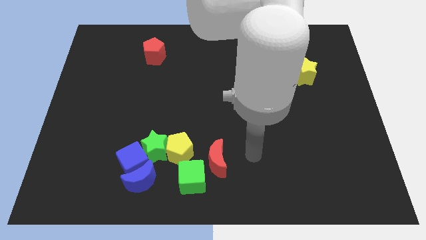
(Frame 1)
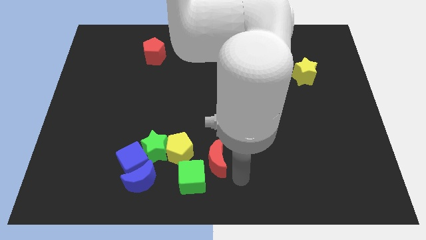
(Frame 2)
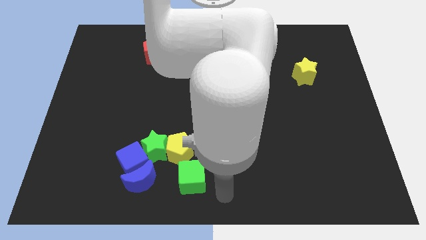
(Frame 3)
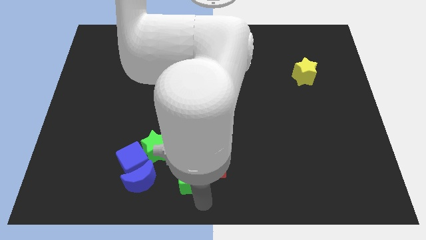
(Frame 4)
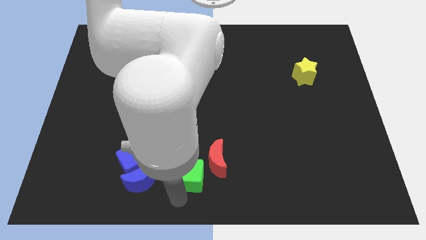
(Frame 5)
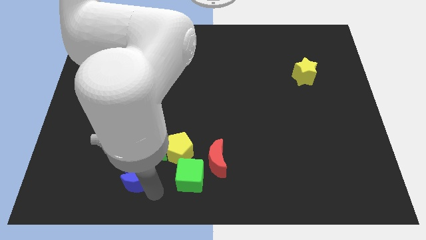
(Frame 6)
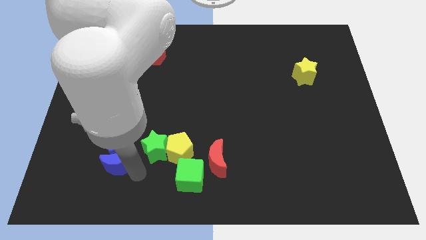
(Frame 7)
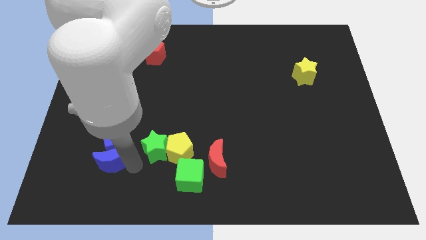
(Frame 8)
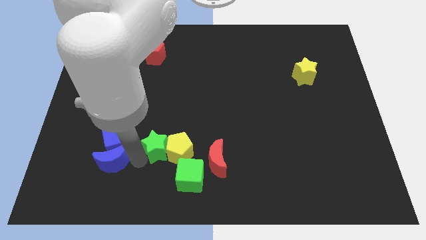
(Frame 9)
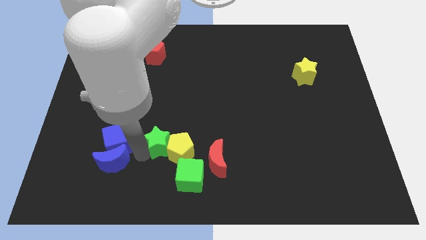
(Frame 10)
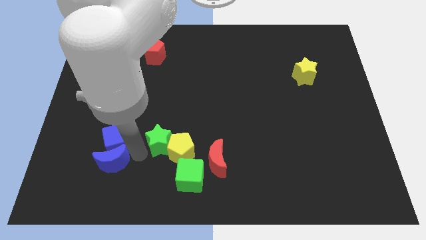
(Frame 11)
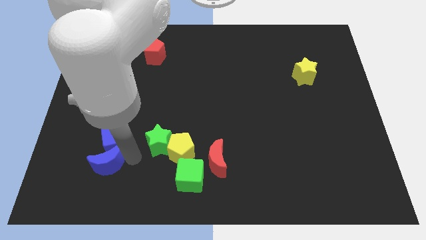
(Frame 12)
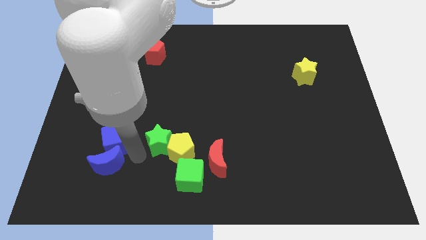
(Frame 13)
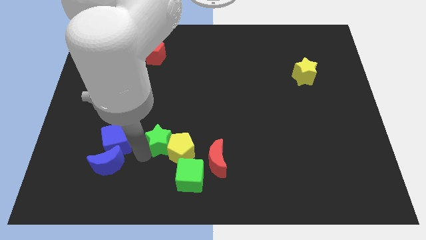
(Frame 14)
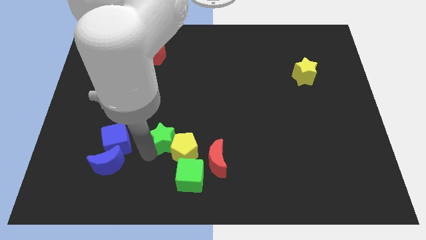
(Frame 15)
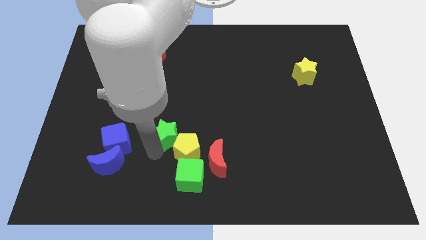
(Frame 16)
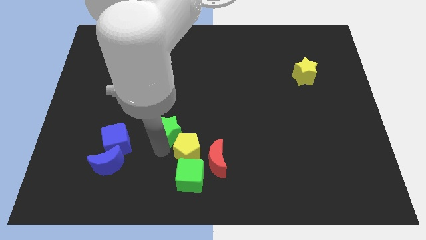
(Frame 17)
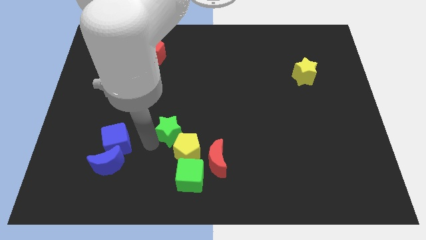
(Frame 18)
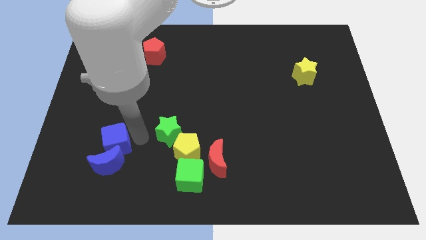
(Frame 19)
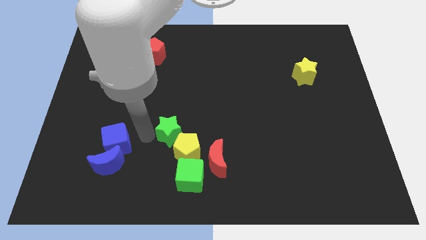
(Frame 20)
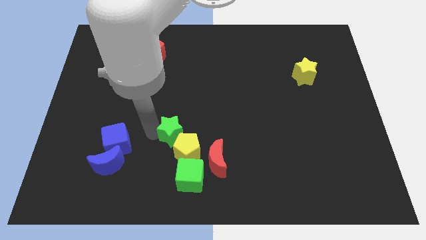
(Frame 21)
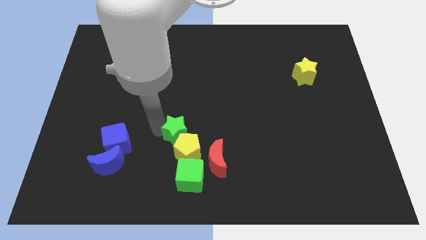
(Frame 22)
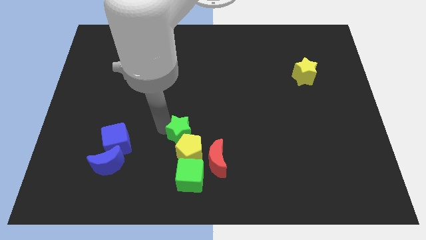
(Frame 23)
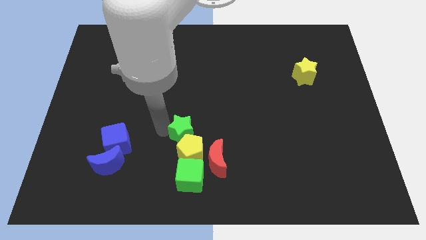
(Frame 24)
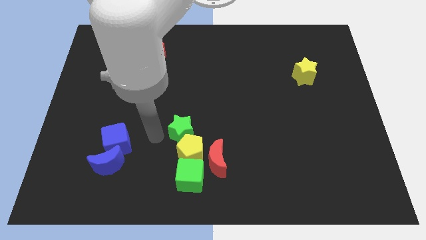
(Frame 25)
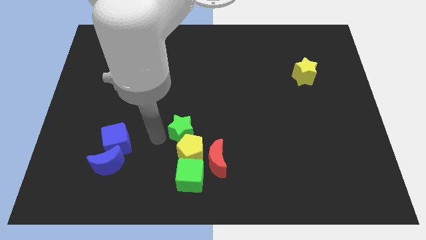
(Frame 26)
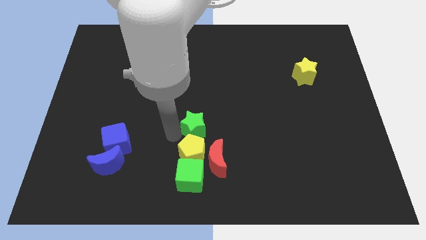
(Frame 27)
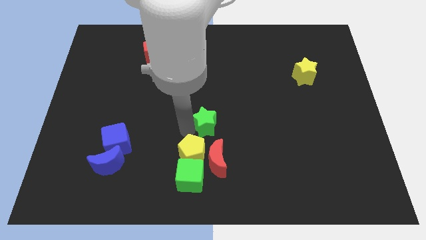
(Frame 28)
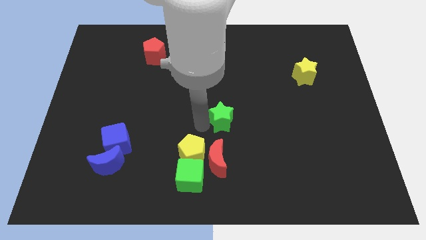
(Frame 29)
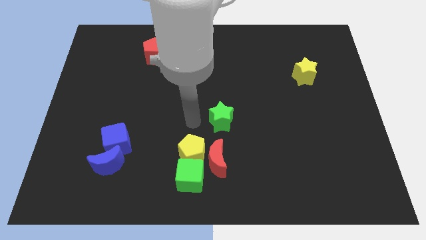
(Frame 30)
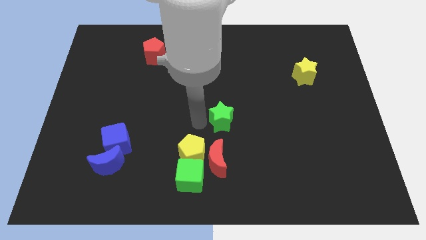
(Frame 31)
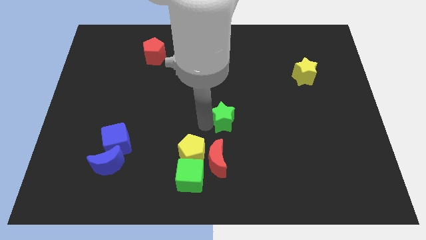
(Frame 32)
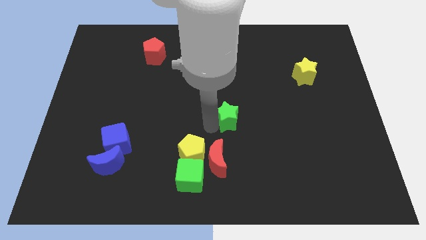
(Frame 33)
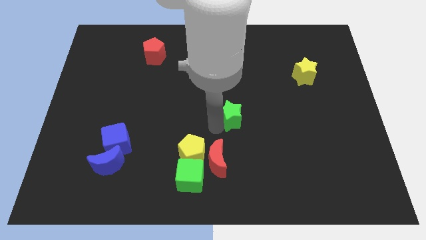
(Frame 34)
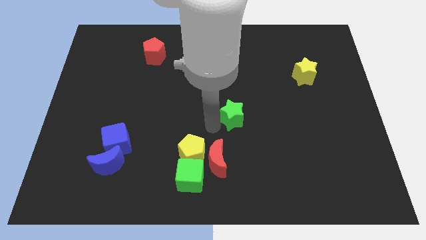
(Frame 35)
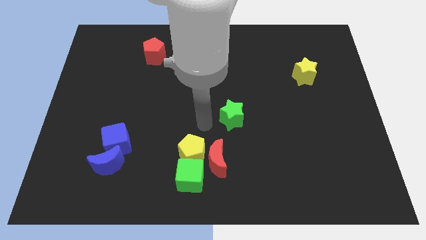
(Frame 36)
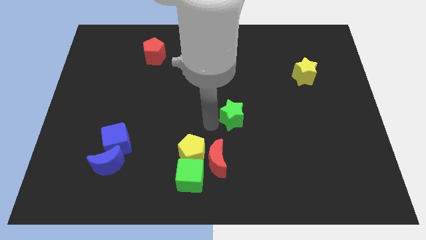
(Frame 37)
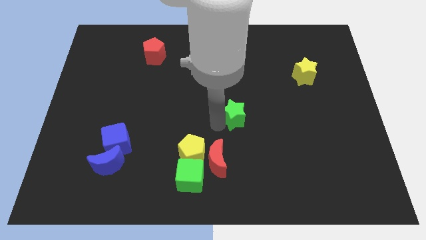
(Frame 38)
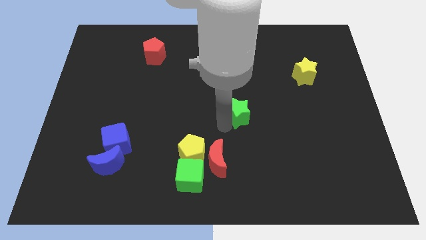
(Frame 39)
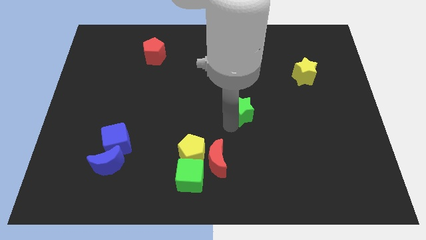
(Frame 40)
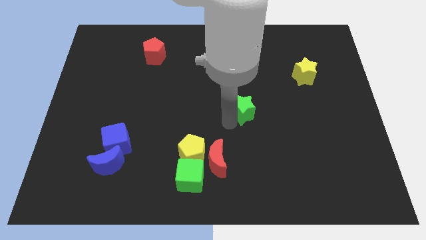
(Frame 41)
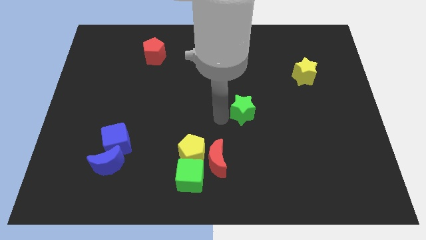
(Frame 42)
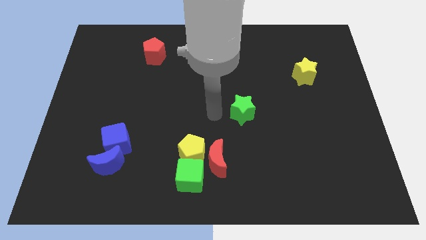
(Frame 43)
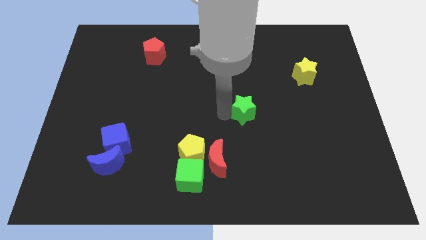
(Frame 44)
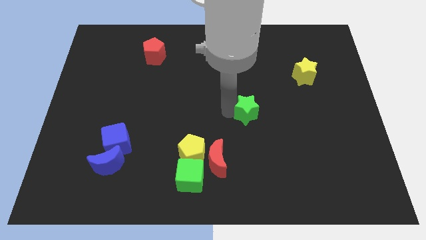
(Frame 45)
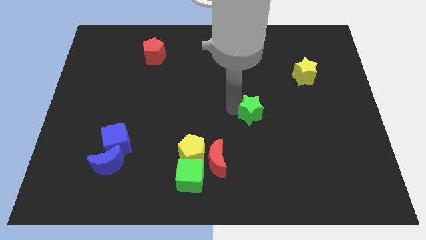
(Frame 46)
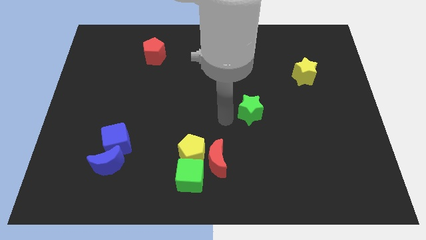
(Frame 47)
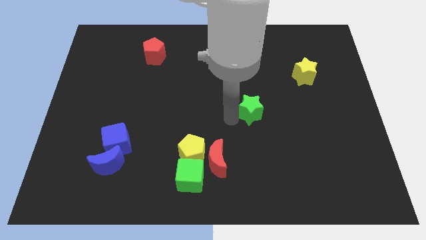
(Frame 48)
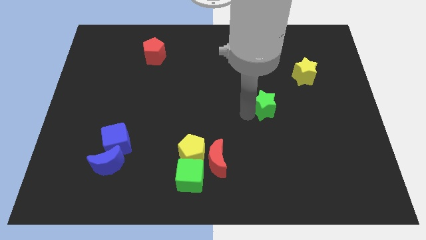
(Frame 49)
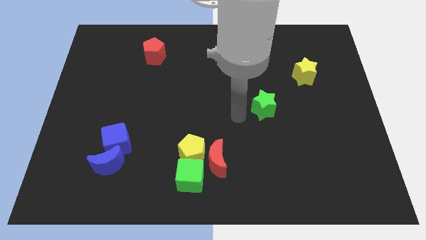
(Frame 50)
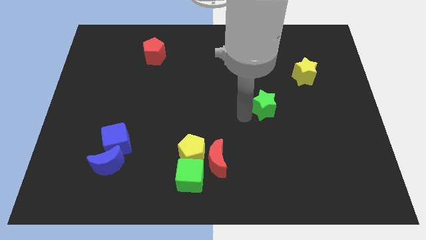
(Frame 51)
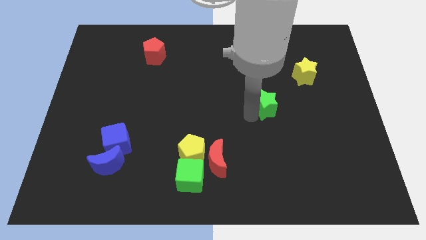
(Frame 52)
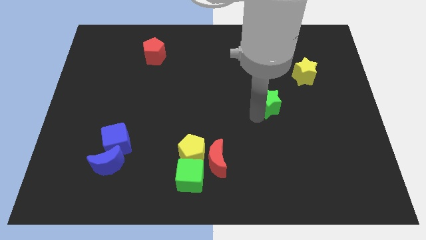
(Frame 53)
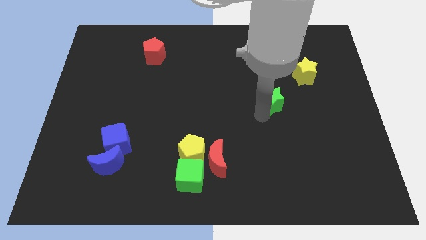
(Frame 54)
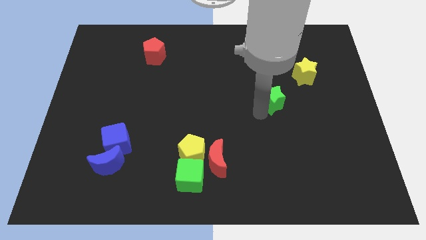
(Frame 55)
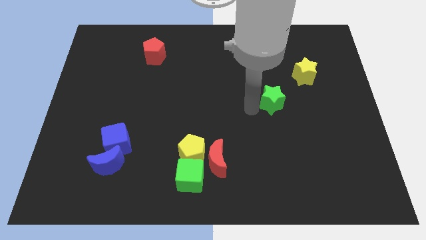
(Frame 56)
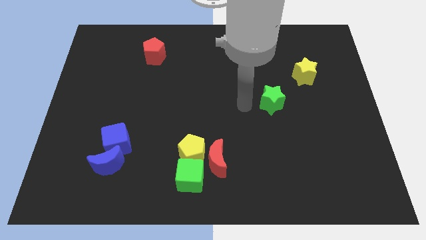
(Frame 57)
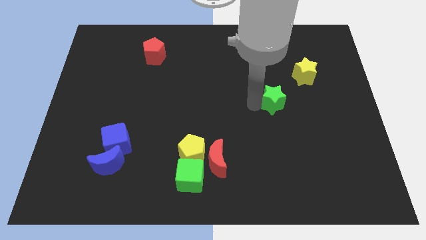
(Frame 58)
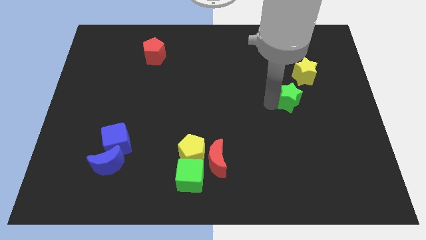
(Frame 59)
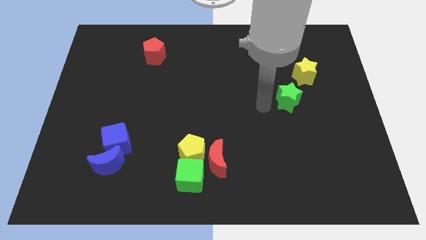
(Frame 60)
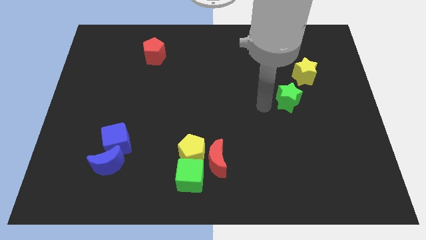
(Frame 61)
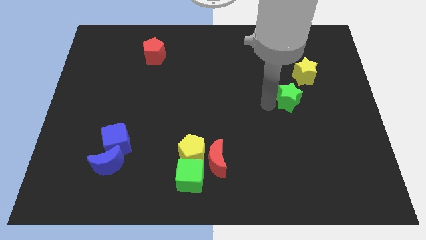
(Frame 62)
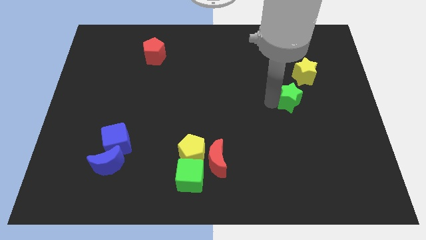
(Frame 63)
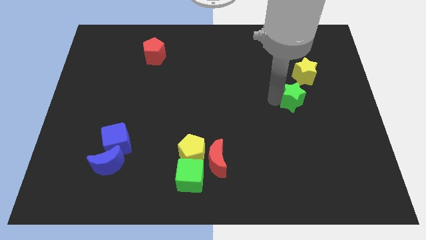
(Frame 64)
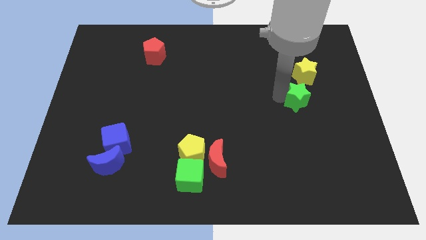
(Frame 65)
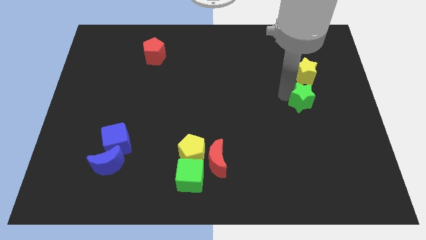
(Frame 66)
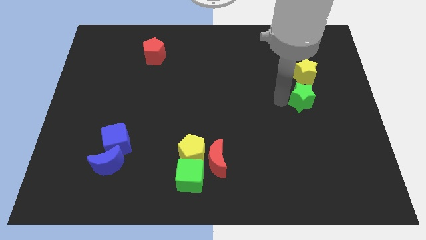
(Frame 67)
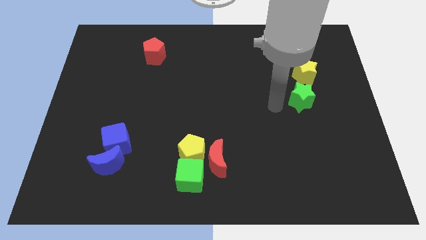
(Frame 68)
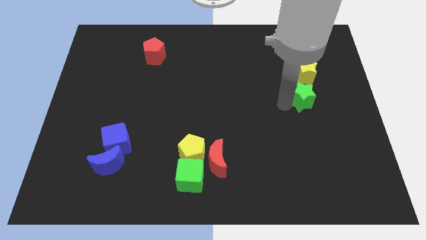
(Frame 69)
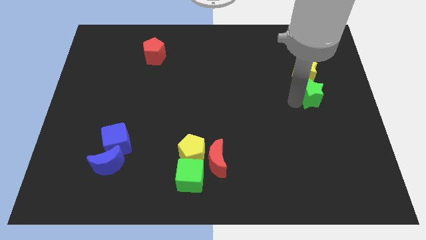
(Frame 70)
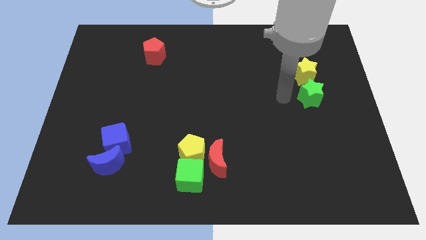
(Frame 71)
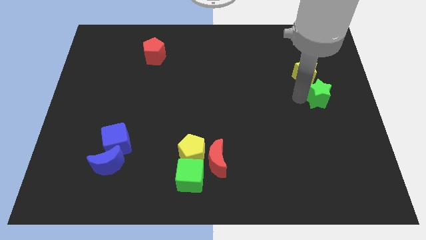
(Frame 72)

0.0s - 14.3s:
put the green star to the right side

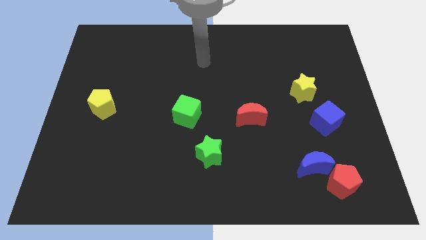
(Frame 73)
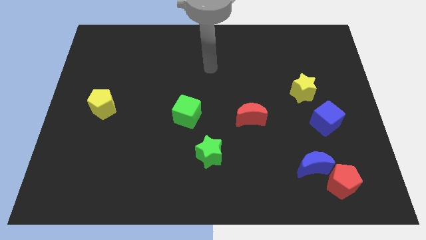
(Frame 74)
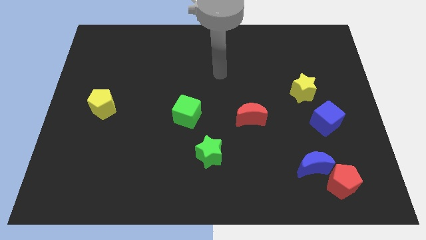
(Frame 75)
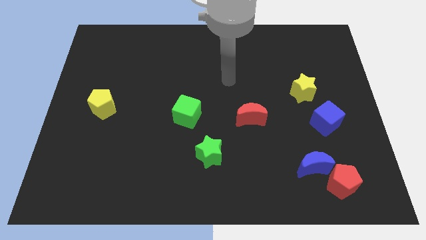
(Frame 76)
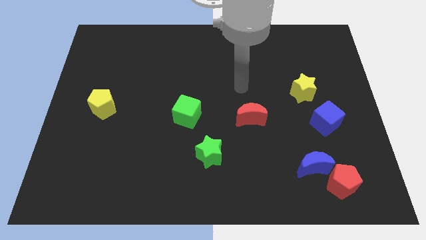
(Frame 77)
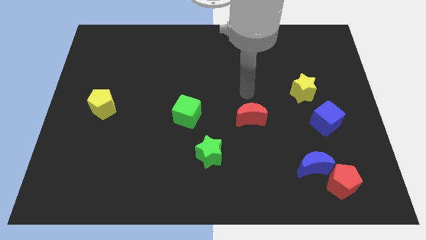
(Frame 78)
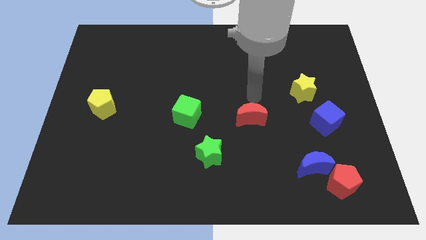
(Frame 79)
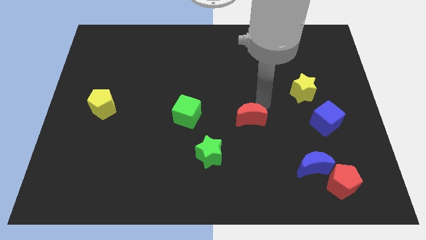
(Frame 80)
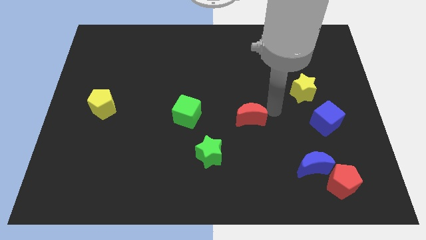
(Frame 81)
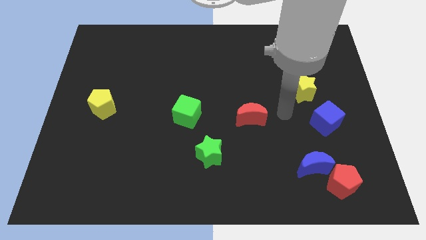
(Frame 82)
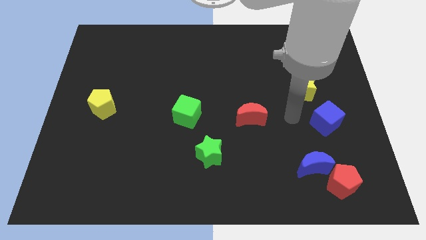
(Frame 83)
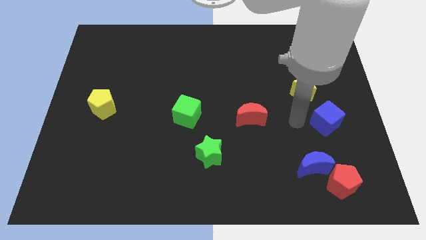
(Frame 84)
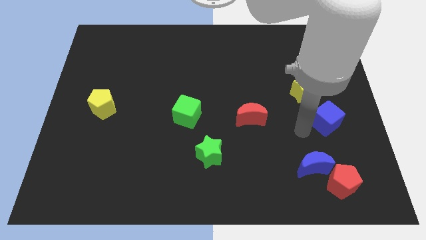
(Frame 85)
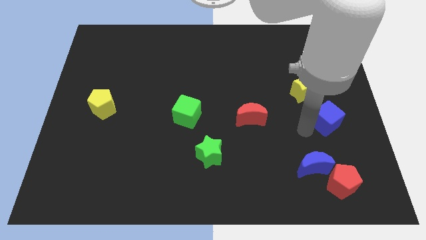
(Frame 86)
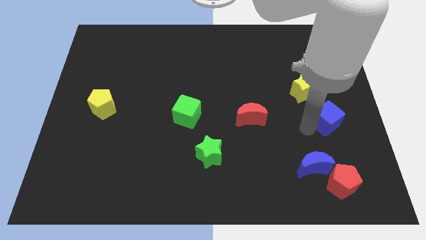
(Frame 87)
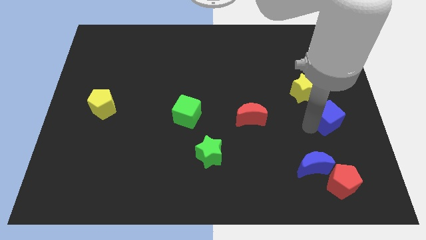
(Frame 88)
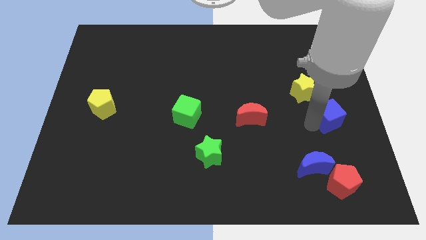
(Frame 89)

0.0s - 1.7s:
slide the blue cube to the right side of the board
